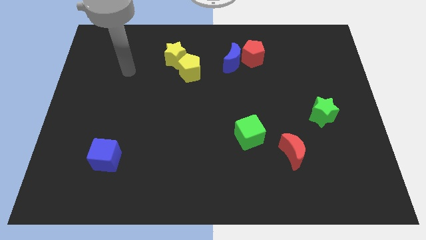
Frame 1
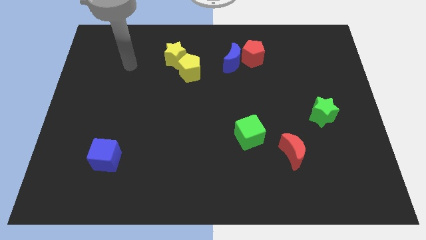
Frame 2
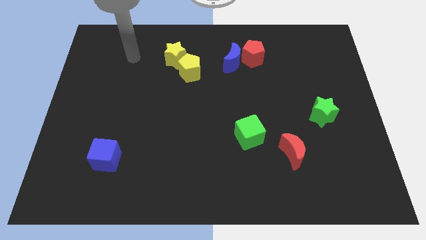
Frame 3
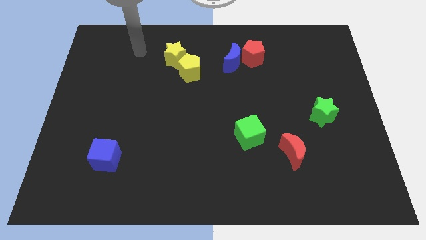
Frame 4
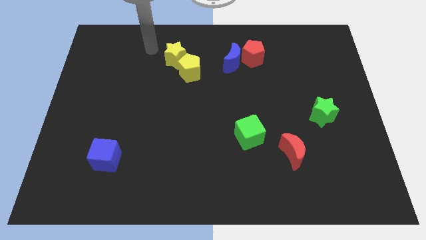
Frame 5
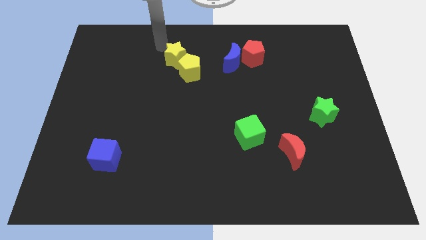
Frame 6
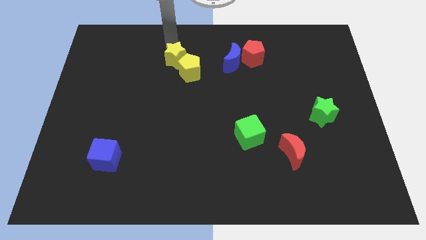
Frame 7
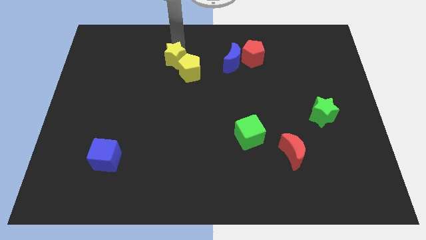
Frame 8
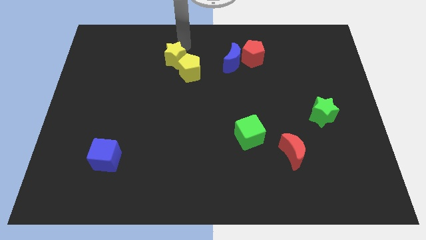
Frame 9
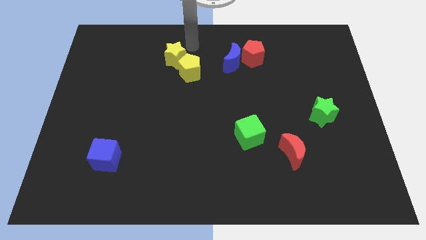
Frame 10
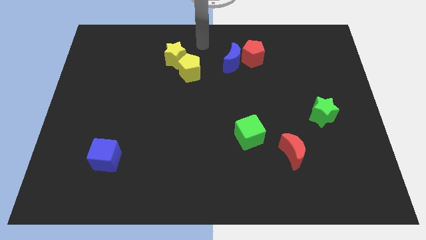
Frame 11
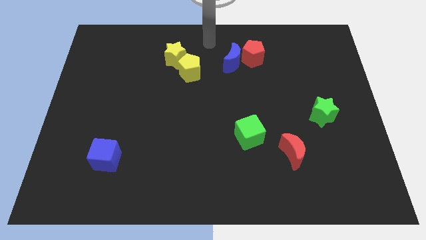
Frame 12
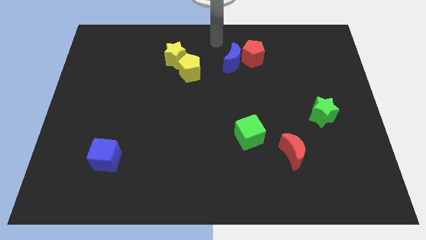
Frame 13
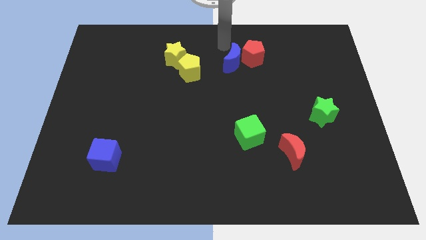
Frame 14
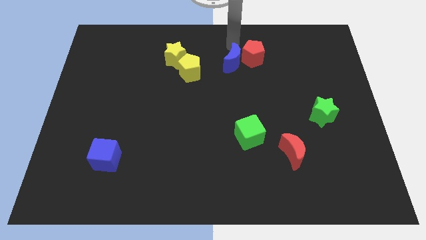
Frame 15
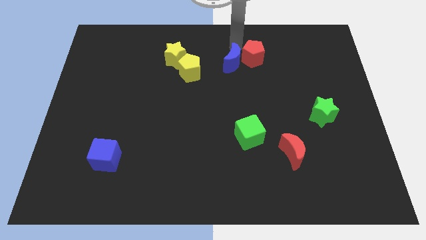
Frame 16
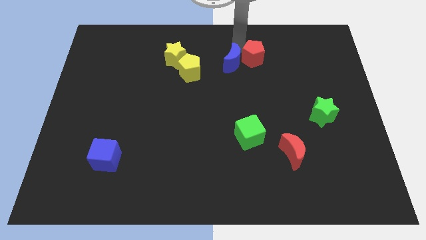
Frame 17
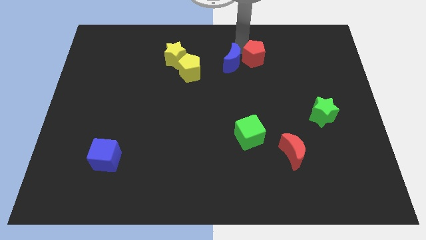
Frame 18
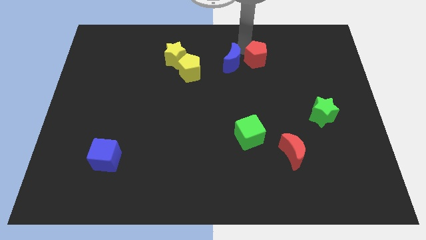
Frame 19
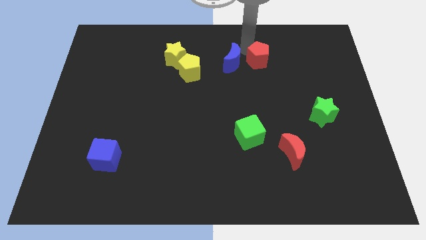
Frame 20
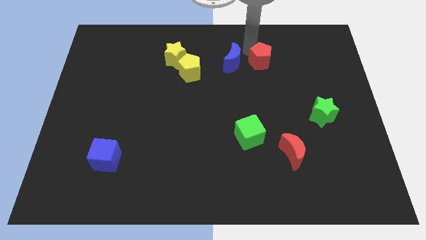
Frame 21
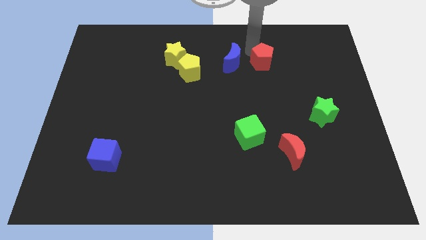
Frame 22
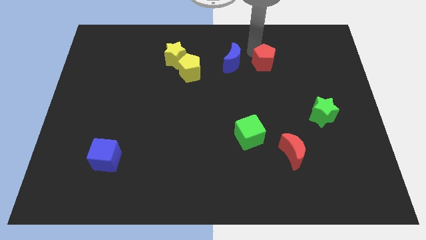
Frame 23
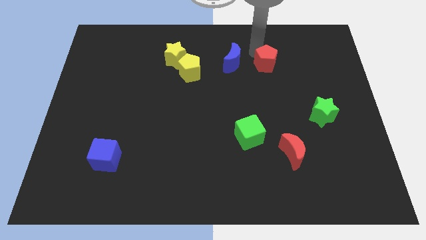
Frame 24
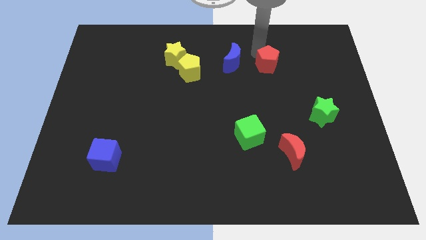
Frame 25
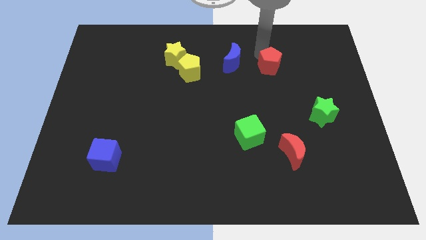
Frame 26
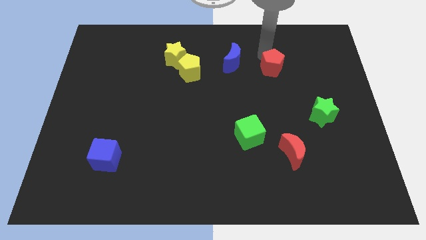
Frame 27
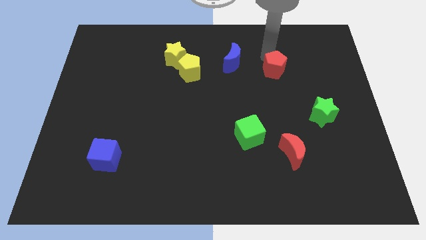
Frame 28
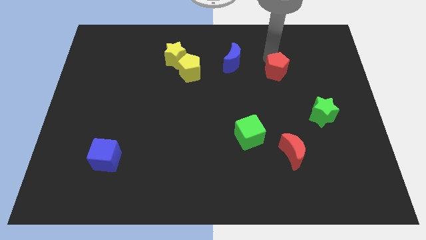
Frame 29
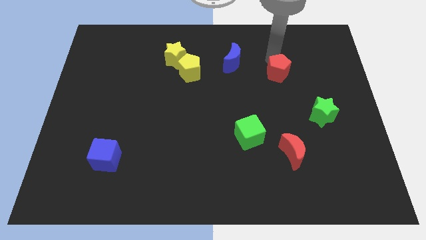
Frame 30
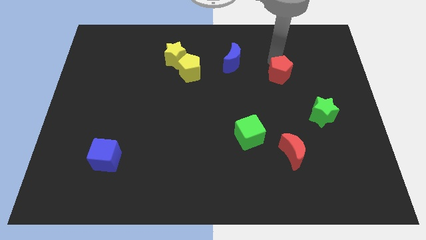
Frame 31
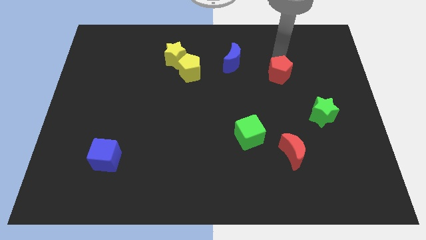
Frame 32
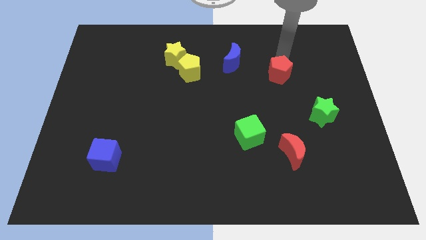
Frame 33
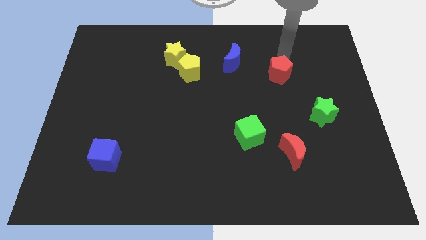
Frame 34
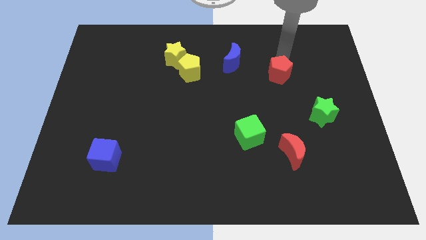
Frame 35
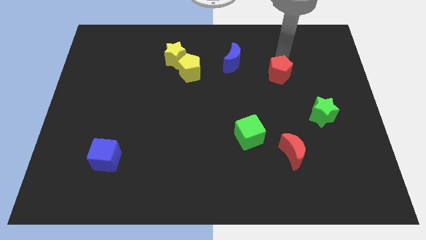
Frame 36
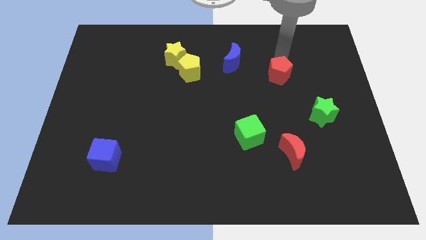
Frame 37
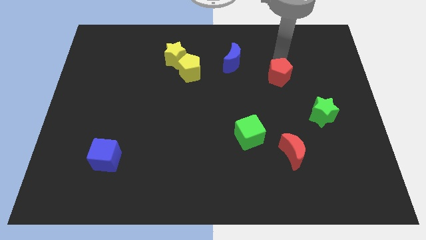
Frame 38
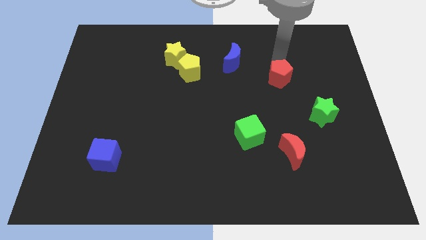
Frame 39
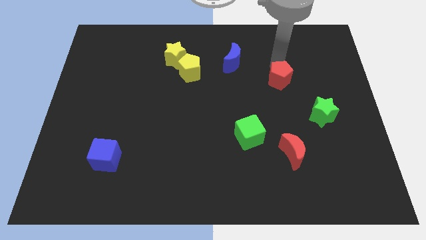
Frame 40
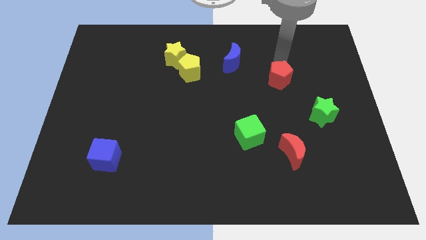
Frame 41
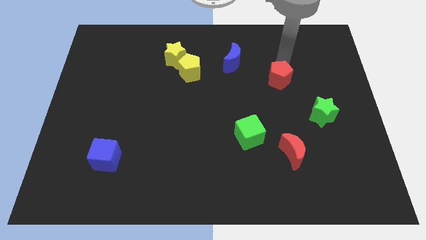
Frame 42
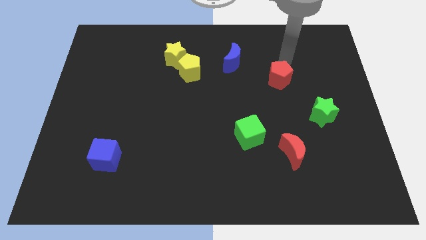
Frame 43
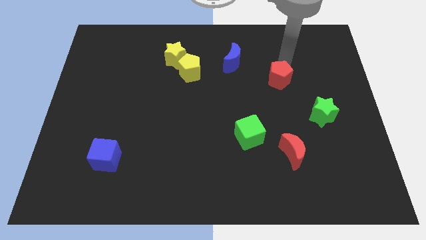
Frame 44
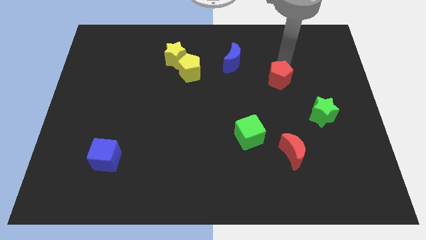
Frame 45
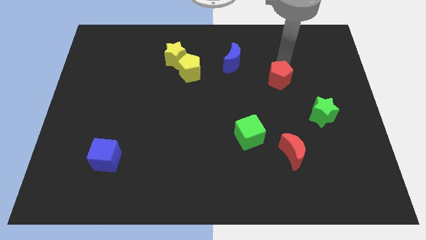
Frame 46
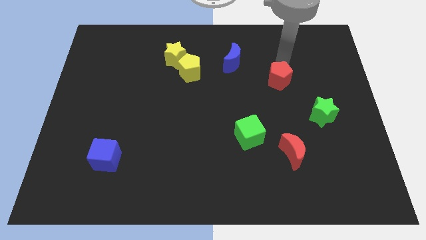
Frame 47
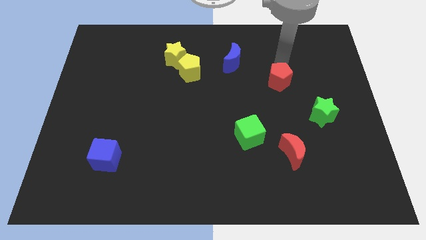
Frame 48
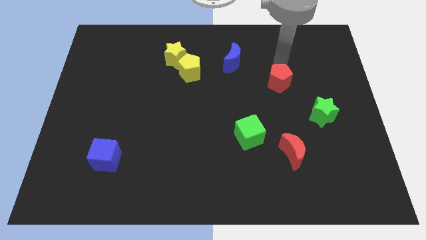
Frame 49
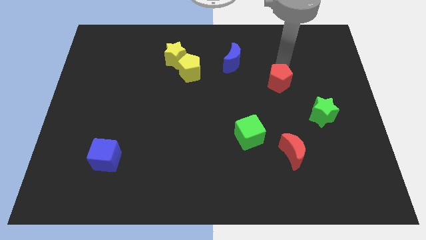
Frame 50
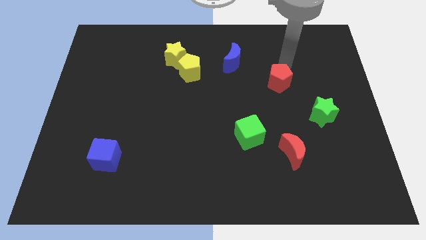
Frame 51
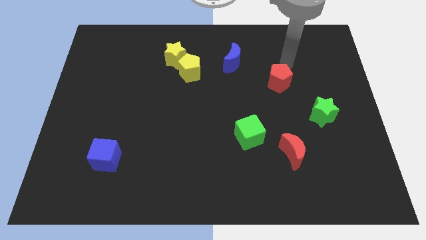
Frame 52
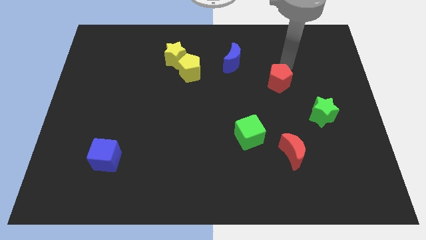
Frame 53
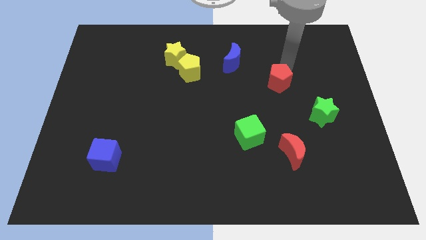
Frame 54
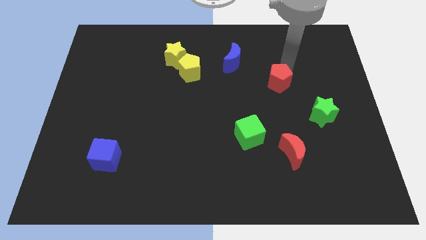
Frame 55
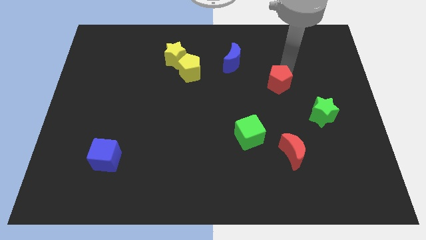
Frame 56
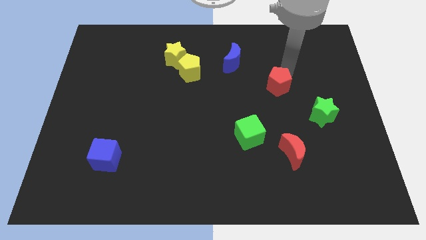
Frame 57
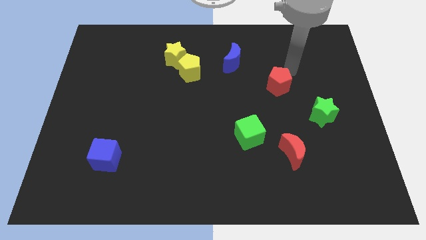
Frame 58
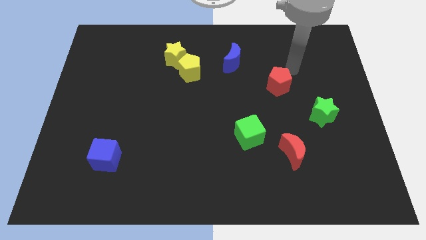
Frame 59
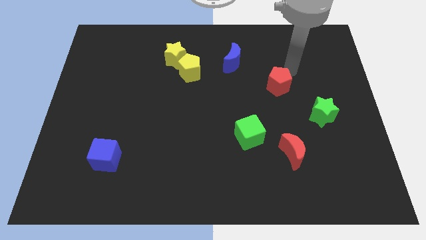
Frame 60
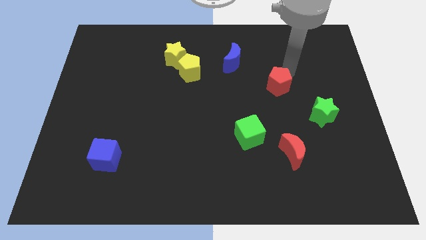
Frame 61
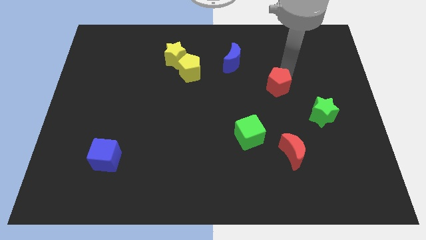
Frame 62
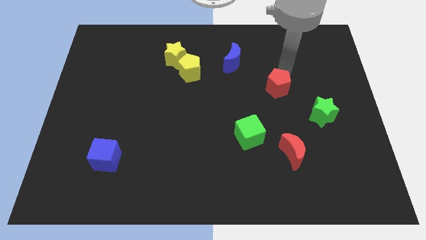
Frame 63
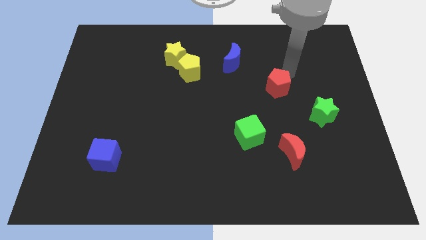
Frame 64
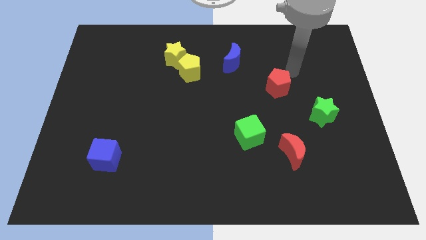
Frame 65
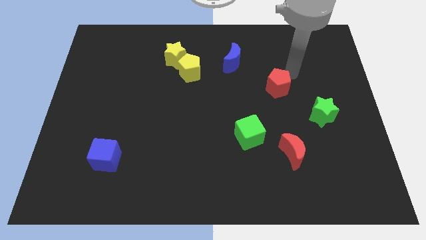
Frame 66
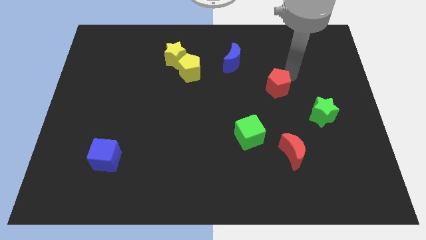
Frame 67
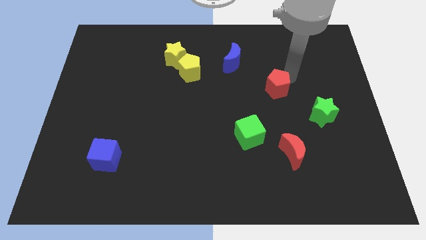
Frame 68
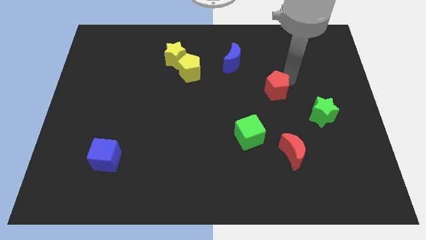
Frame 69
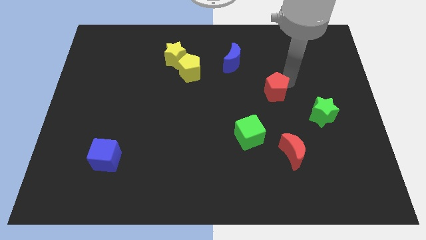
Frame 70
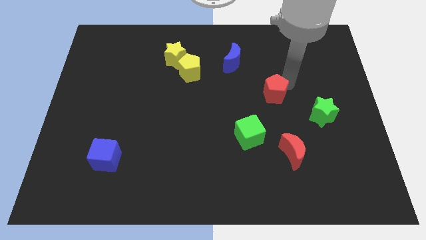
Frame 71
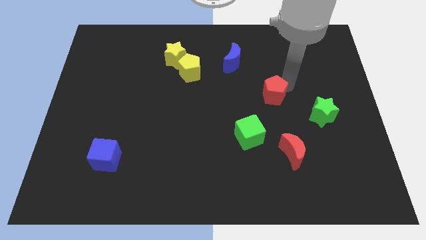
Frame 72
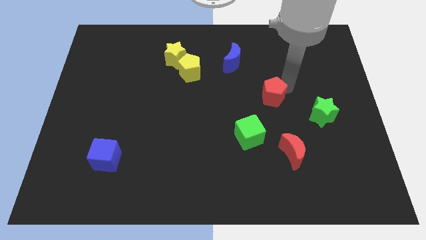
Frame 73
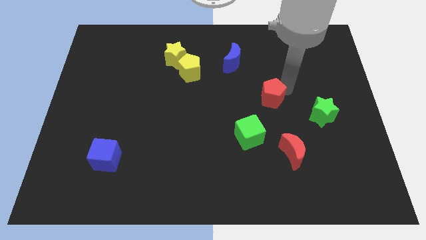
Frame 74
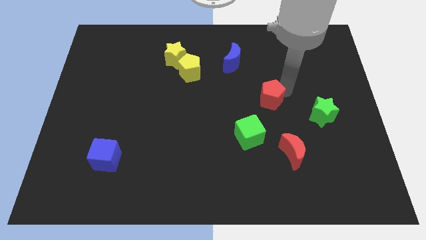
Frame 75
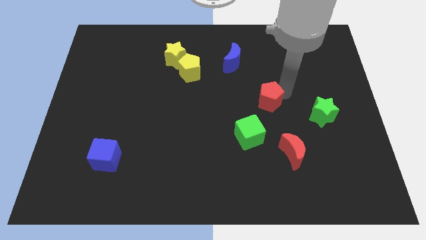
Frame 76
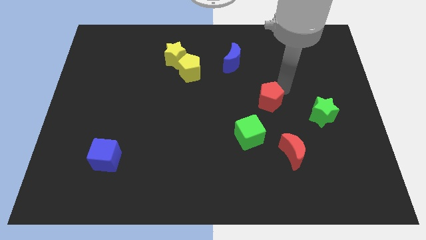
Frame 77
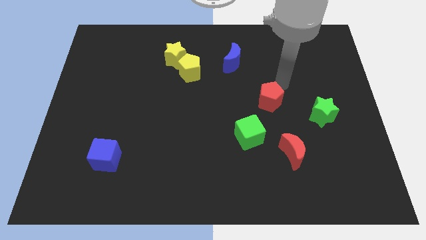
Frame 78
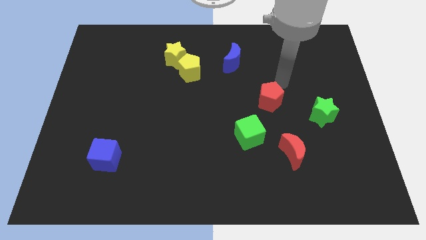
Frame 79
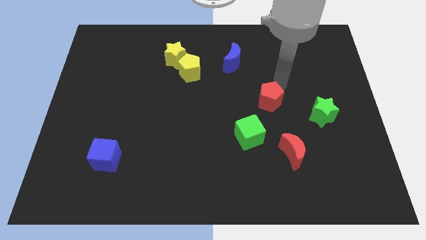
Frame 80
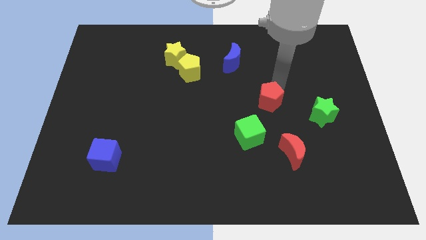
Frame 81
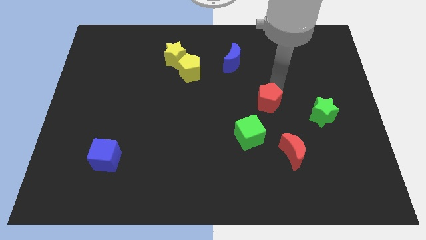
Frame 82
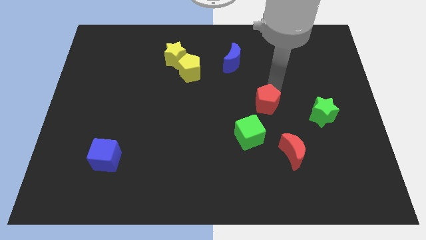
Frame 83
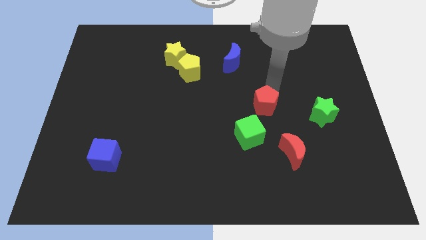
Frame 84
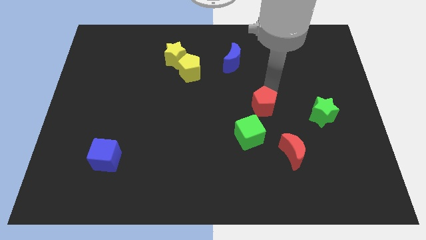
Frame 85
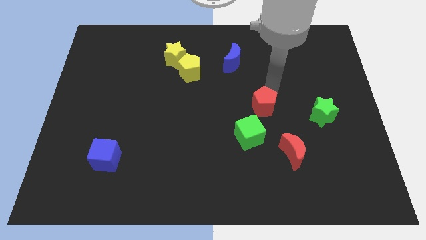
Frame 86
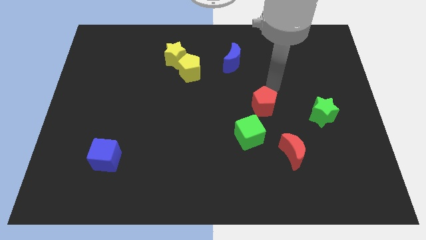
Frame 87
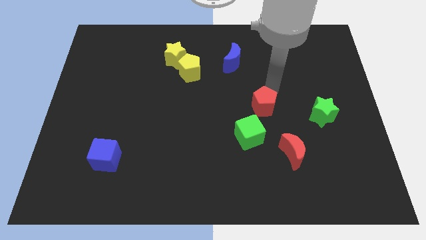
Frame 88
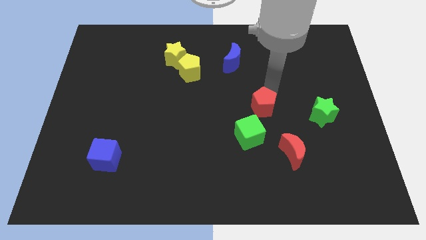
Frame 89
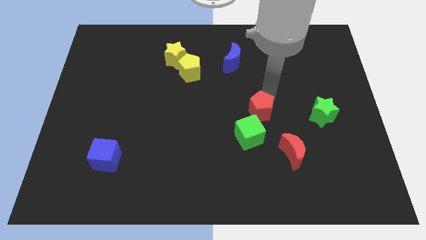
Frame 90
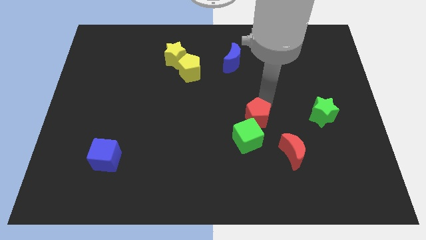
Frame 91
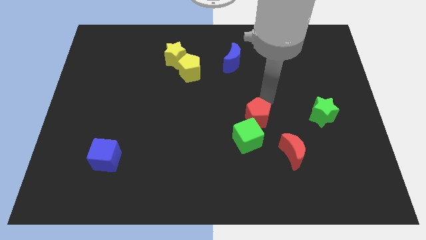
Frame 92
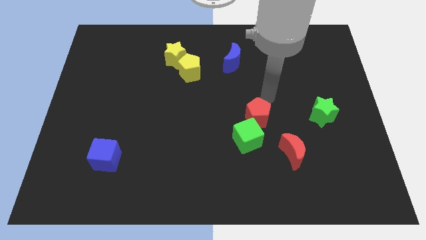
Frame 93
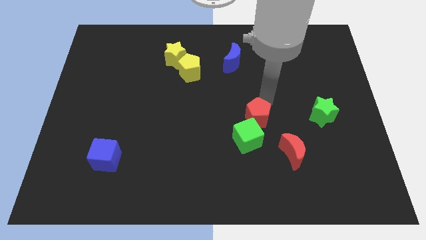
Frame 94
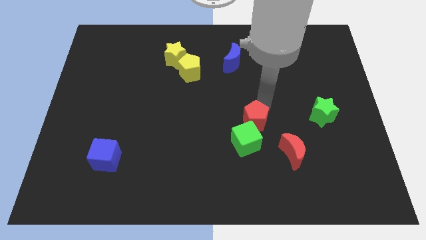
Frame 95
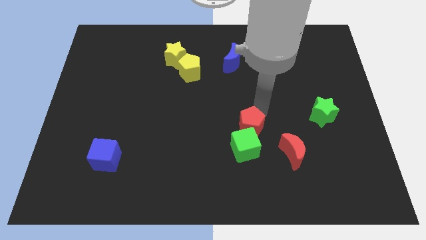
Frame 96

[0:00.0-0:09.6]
put the red pentagon towards the green cube
